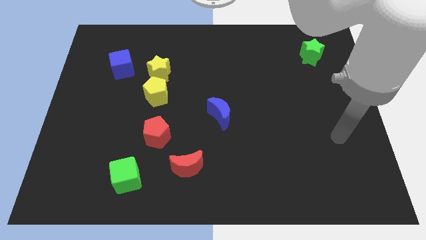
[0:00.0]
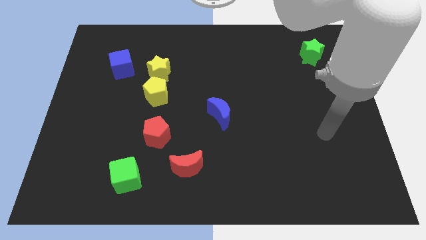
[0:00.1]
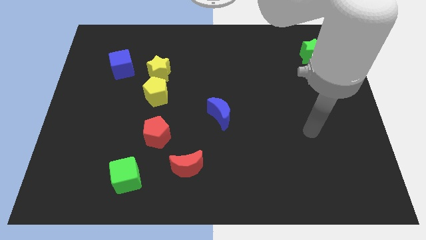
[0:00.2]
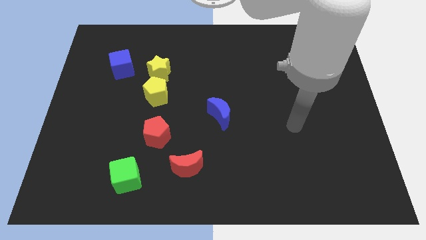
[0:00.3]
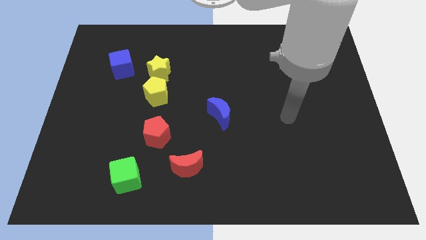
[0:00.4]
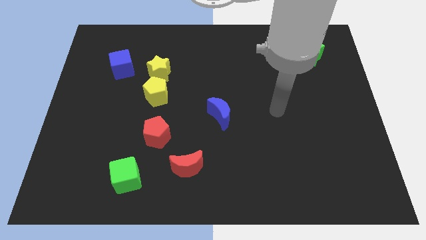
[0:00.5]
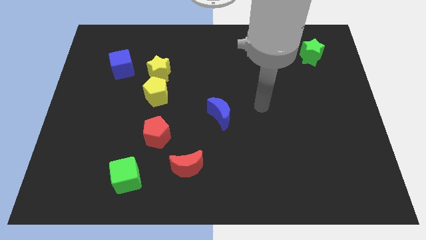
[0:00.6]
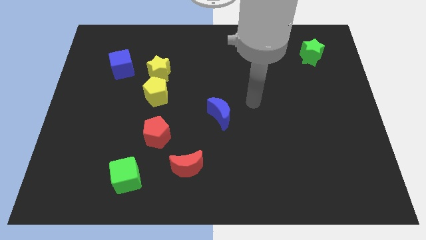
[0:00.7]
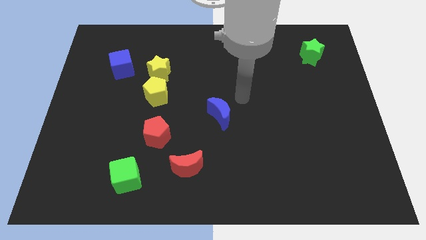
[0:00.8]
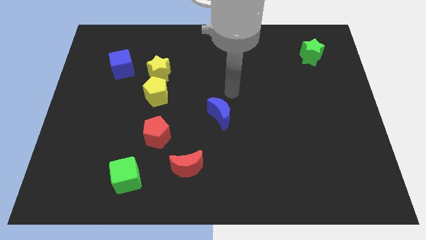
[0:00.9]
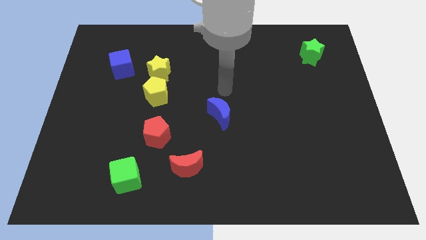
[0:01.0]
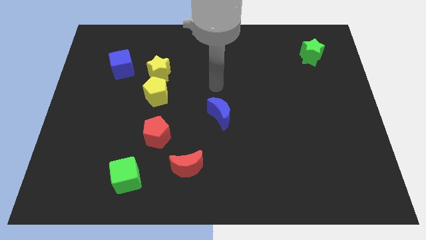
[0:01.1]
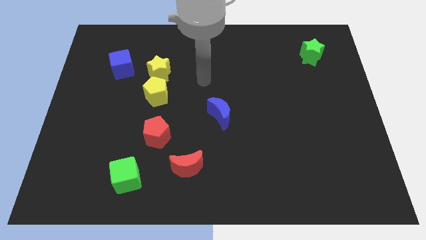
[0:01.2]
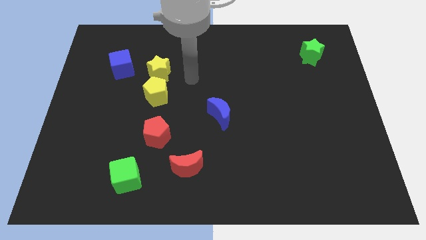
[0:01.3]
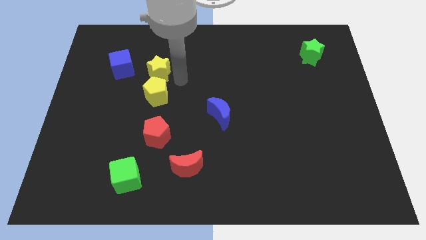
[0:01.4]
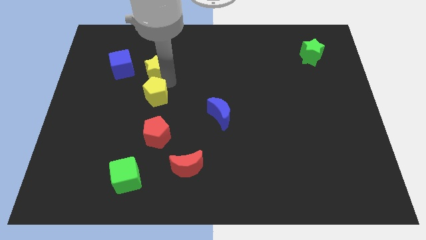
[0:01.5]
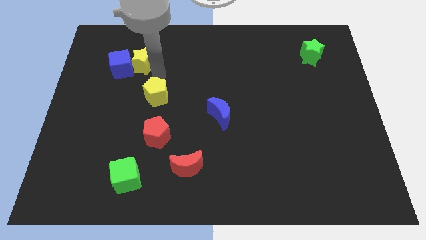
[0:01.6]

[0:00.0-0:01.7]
move the yellow pentagon away from the yellow star

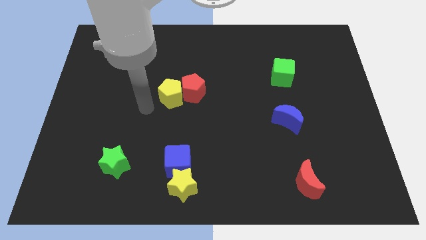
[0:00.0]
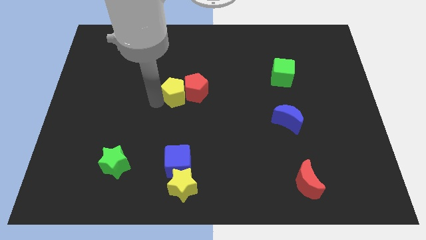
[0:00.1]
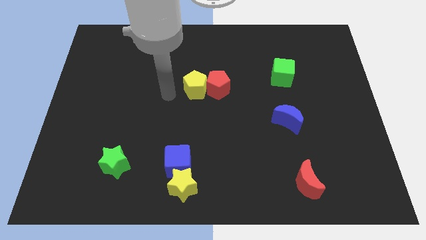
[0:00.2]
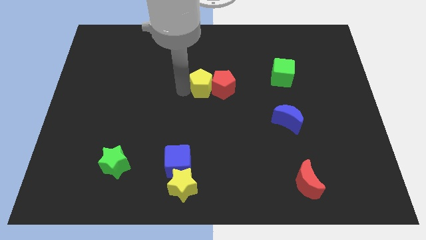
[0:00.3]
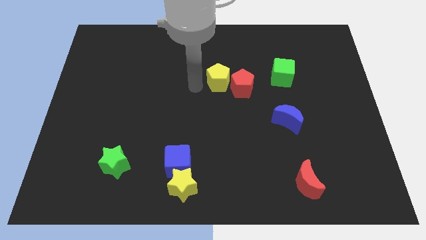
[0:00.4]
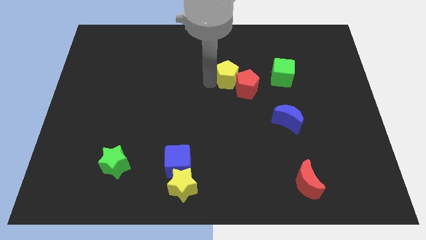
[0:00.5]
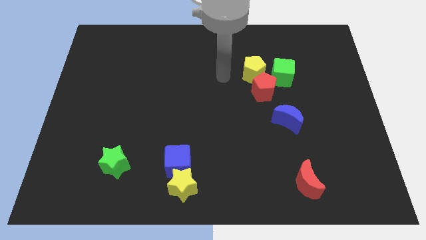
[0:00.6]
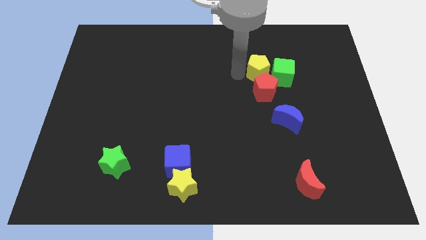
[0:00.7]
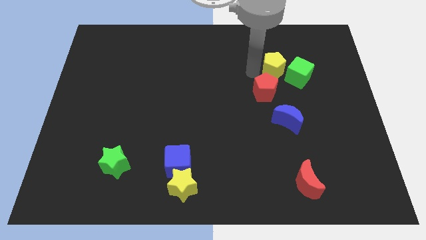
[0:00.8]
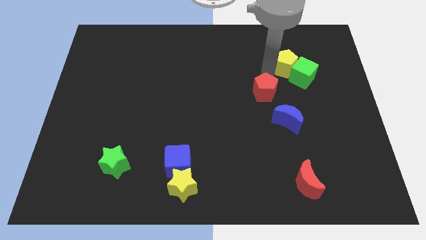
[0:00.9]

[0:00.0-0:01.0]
pull the red pentagon apart from the yellow pentagon

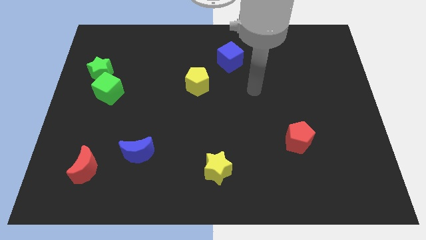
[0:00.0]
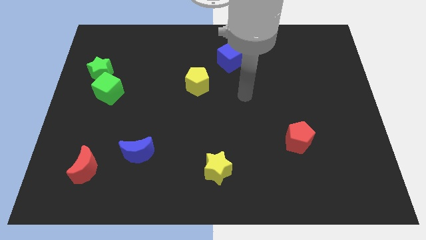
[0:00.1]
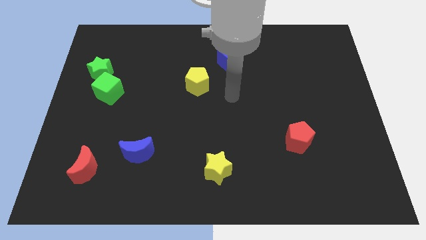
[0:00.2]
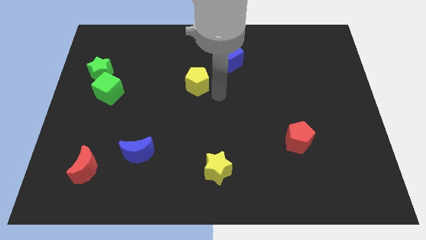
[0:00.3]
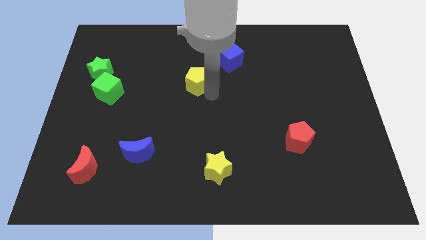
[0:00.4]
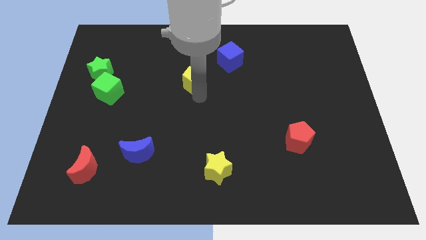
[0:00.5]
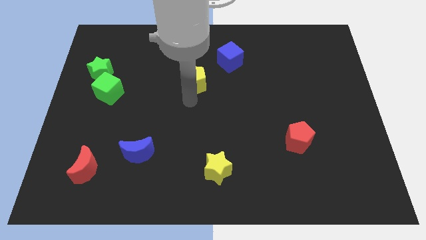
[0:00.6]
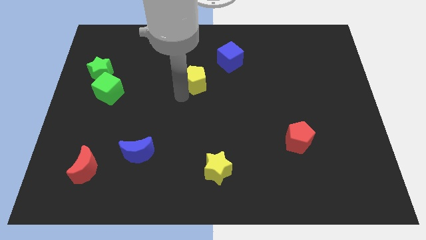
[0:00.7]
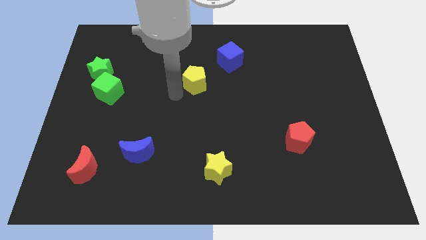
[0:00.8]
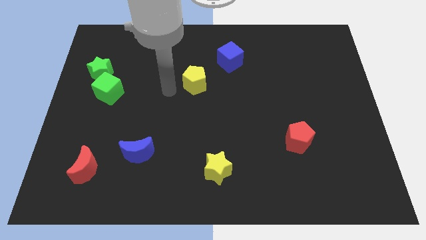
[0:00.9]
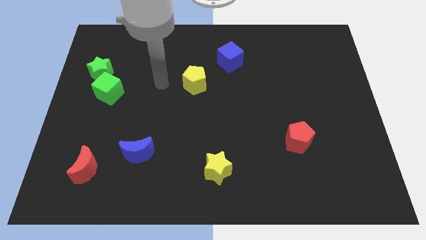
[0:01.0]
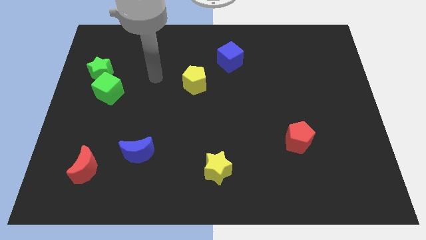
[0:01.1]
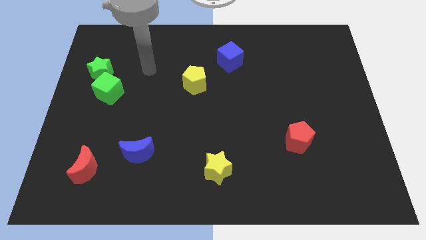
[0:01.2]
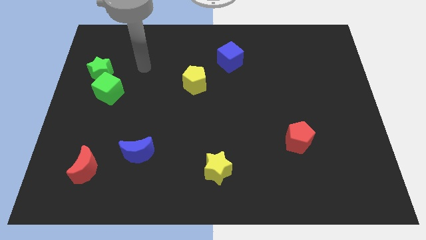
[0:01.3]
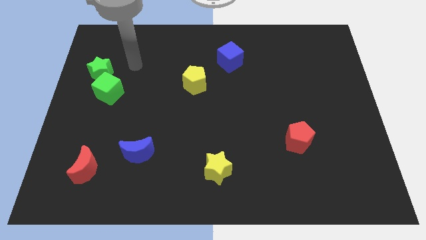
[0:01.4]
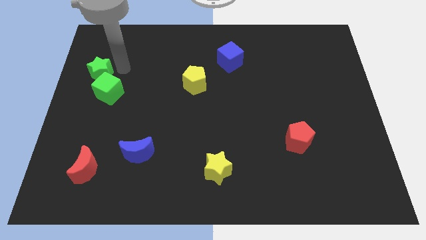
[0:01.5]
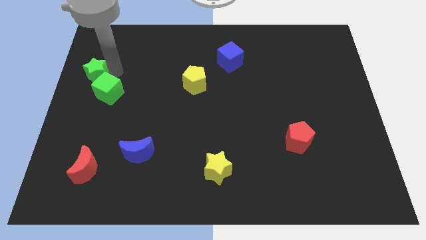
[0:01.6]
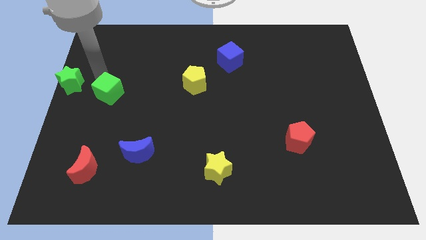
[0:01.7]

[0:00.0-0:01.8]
pull the green cube apart from the green star

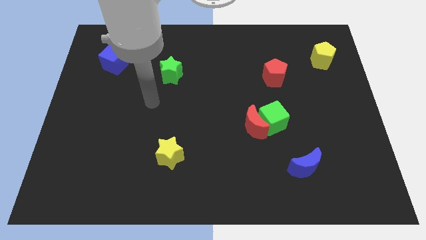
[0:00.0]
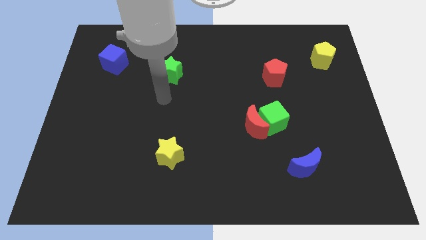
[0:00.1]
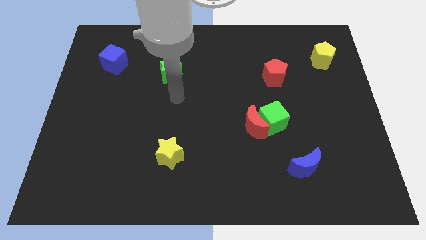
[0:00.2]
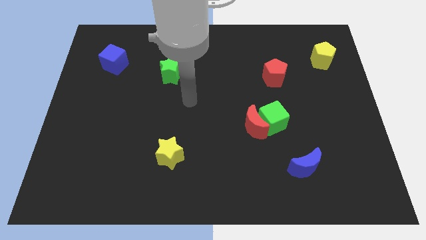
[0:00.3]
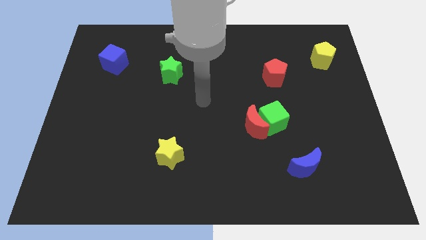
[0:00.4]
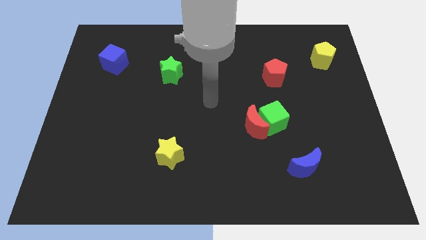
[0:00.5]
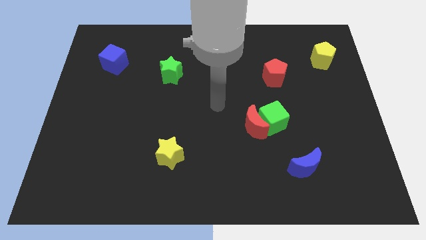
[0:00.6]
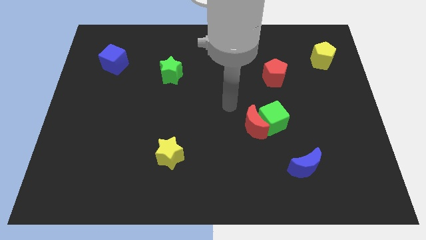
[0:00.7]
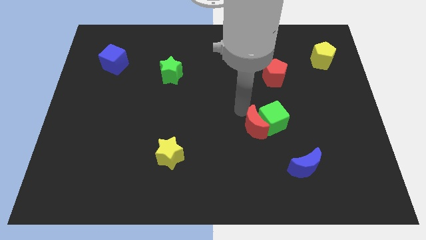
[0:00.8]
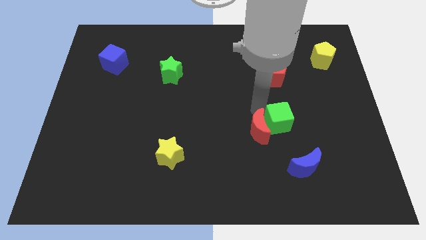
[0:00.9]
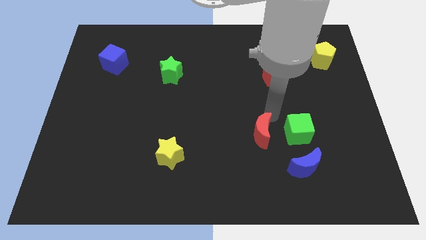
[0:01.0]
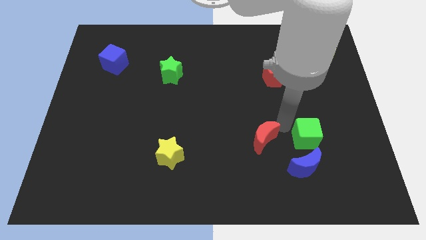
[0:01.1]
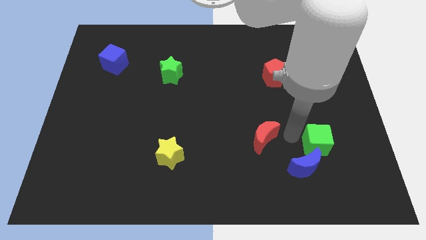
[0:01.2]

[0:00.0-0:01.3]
separate the red moon from the green cube

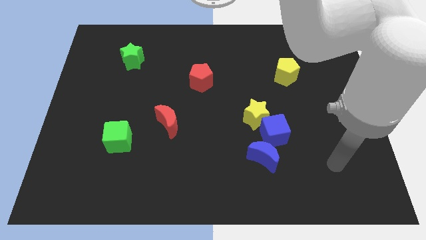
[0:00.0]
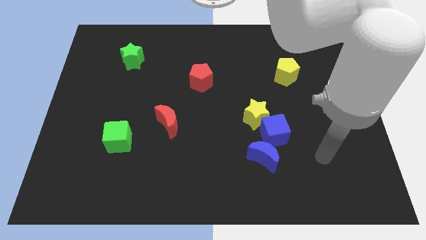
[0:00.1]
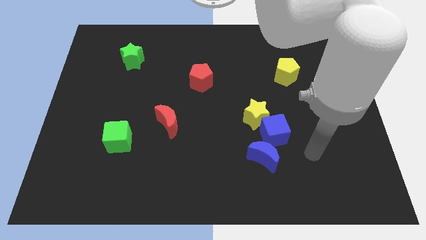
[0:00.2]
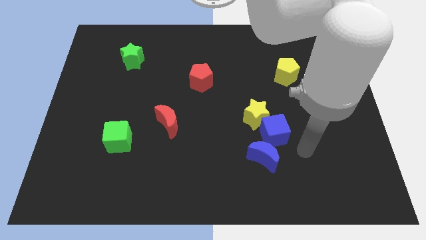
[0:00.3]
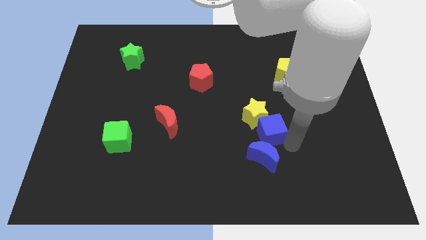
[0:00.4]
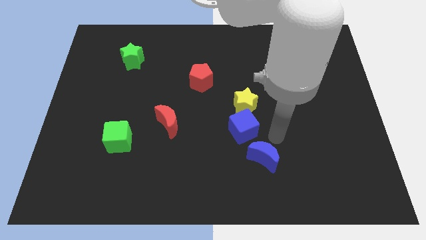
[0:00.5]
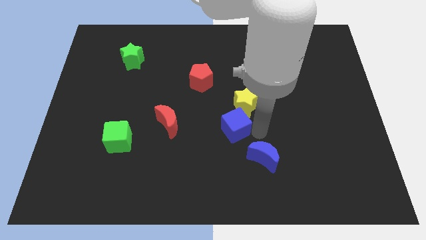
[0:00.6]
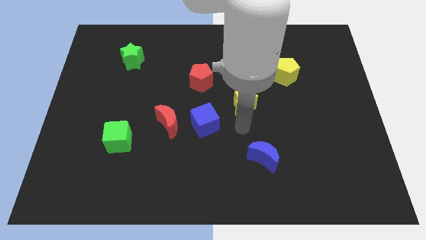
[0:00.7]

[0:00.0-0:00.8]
move the yellow star away from the blue cube

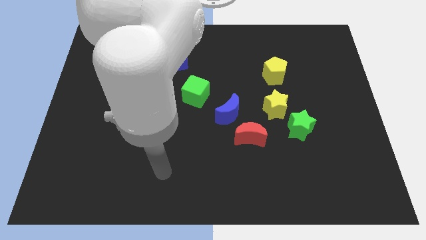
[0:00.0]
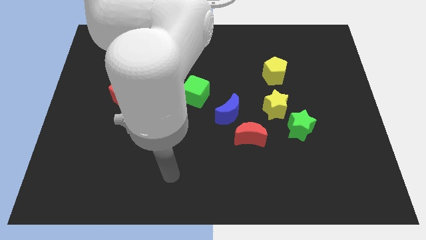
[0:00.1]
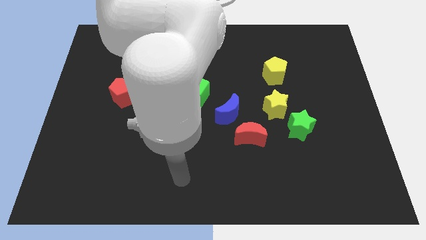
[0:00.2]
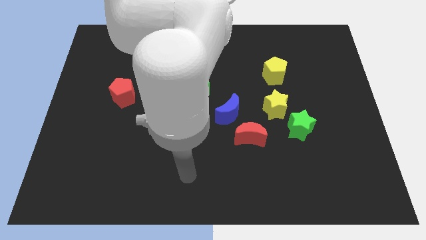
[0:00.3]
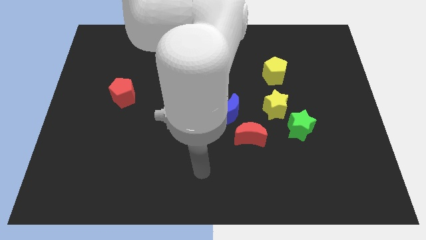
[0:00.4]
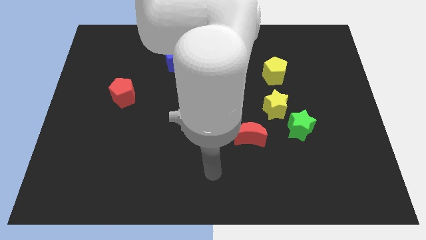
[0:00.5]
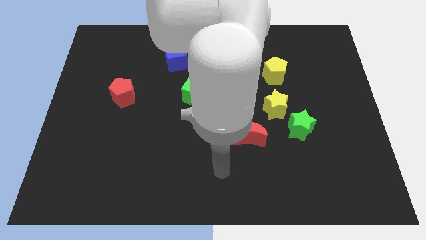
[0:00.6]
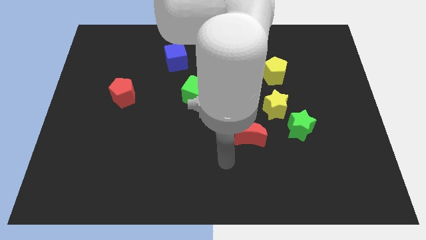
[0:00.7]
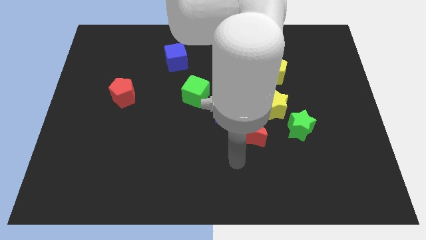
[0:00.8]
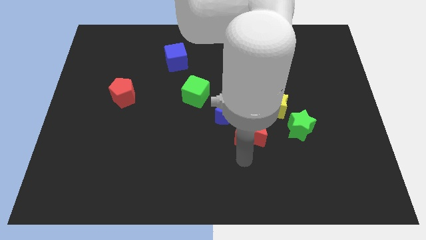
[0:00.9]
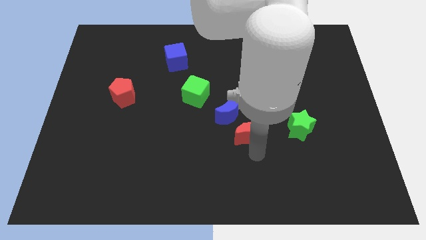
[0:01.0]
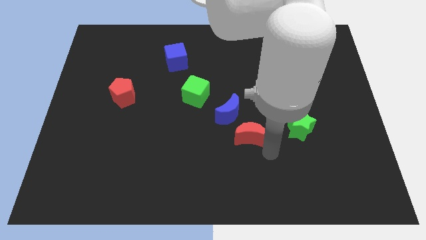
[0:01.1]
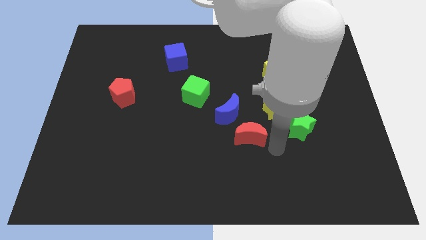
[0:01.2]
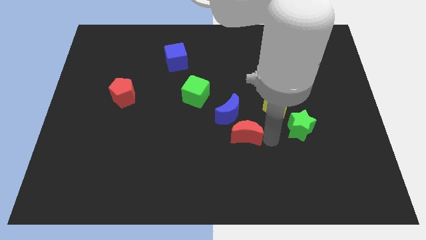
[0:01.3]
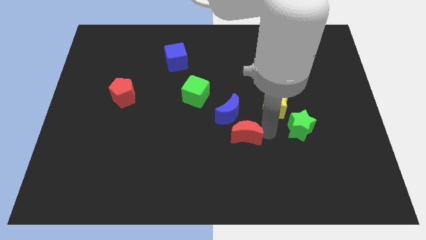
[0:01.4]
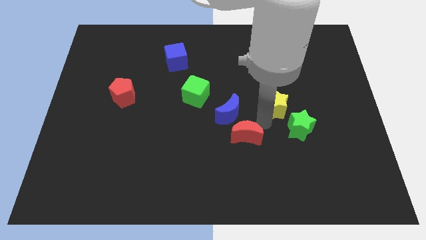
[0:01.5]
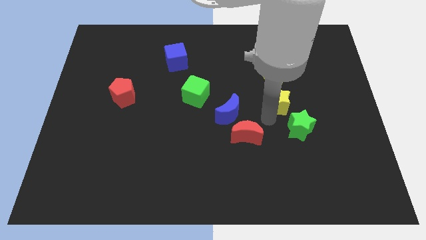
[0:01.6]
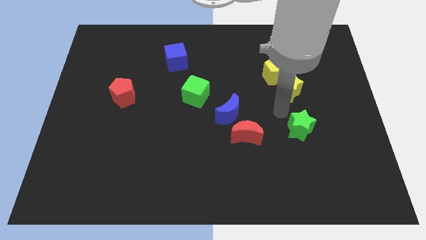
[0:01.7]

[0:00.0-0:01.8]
move the green star away from the yellow star

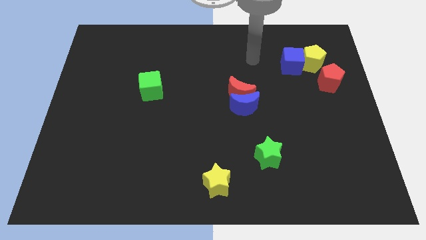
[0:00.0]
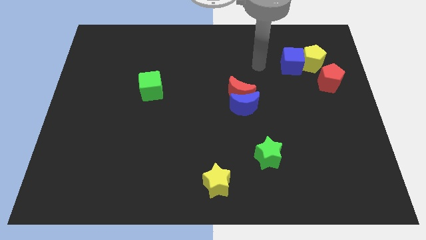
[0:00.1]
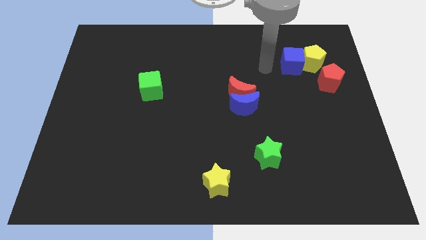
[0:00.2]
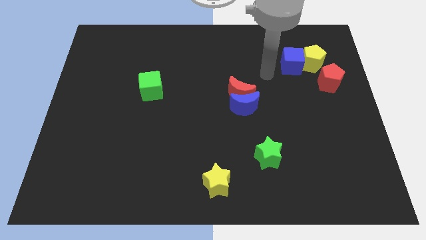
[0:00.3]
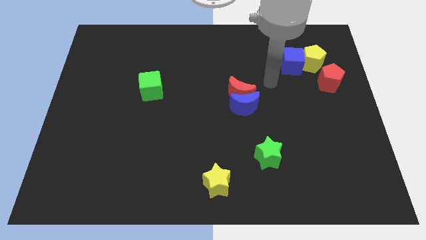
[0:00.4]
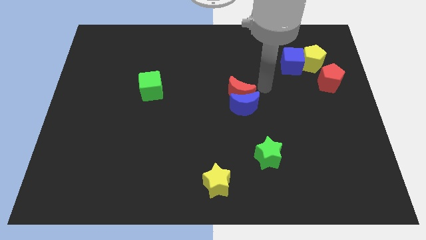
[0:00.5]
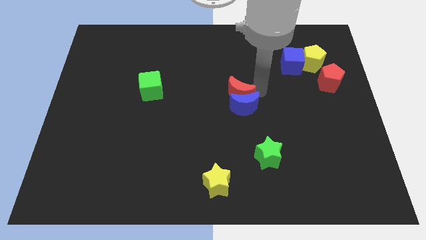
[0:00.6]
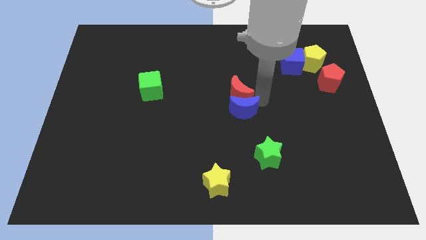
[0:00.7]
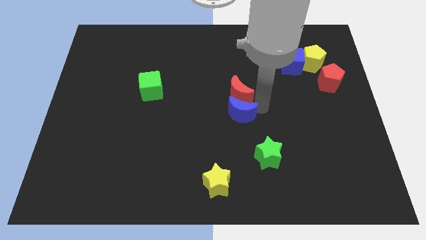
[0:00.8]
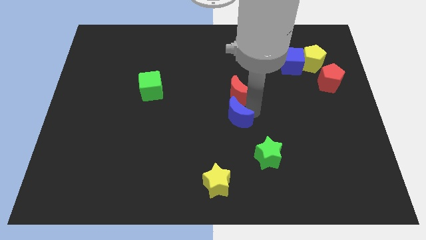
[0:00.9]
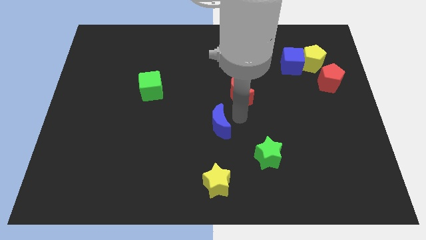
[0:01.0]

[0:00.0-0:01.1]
pull the red moon apart from the blue moon
